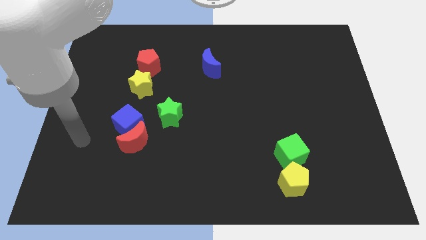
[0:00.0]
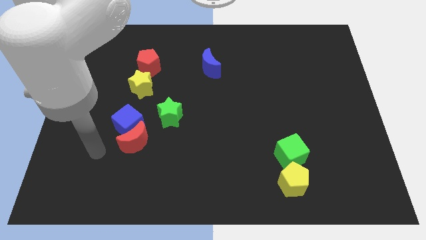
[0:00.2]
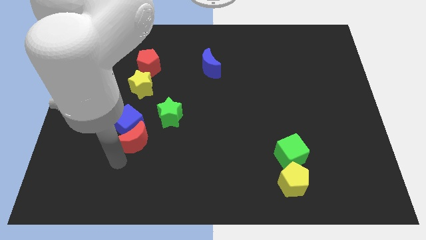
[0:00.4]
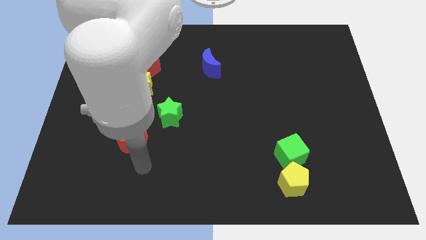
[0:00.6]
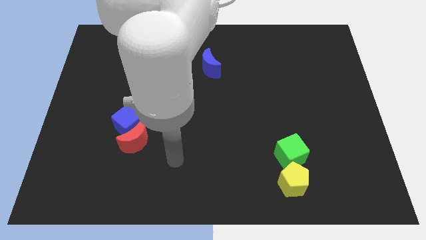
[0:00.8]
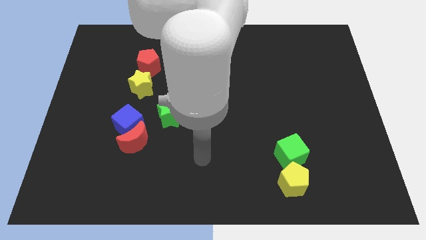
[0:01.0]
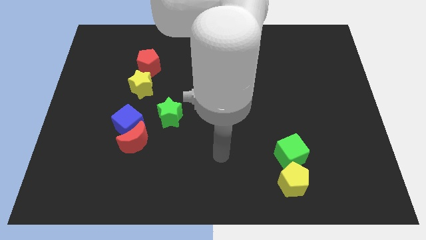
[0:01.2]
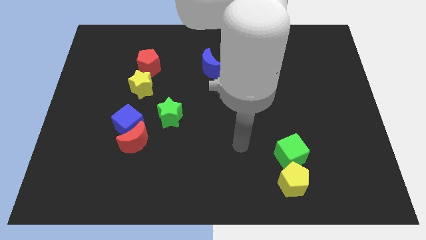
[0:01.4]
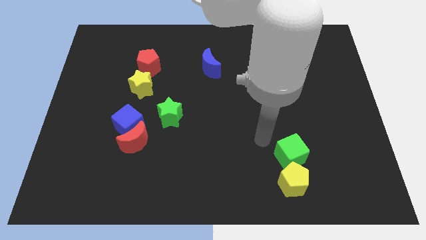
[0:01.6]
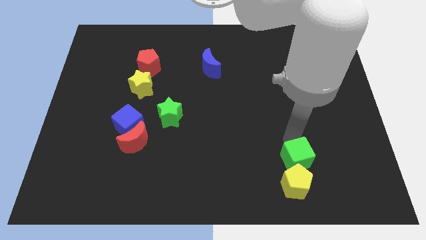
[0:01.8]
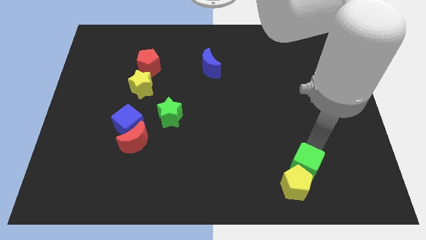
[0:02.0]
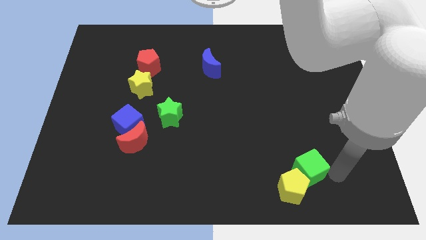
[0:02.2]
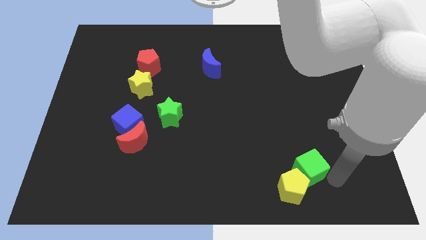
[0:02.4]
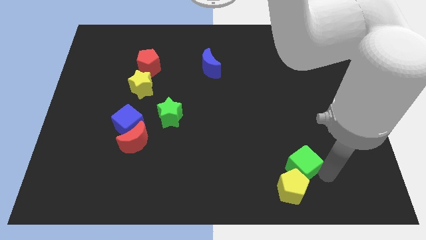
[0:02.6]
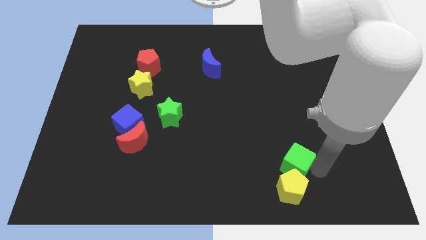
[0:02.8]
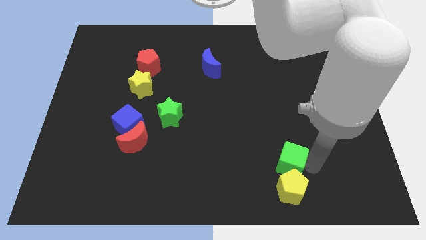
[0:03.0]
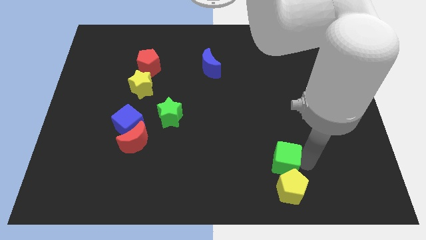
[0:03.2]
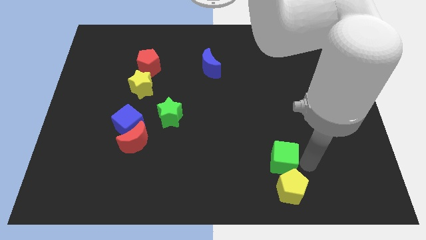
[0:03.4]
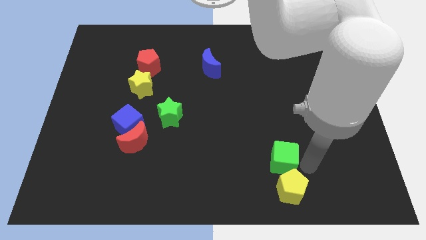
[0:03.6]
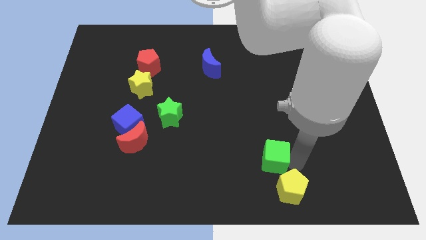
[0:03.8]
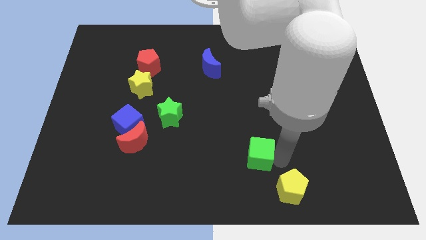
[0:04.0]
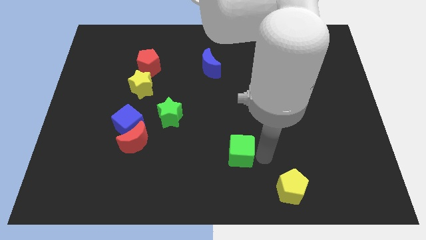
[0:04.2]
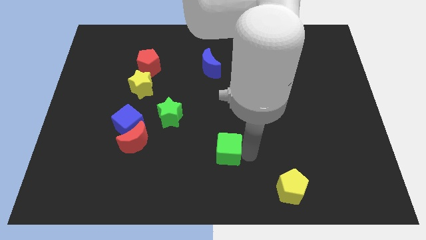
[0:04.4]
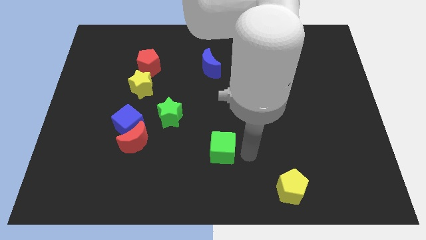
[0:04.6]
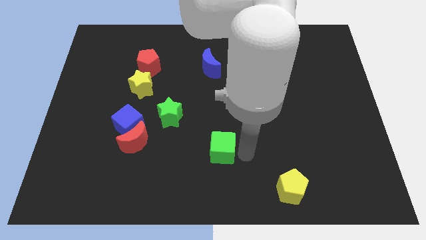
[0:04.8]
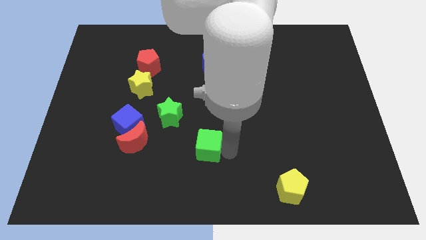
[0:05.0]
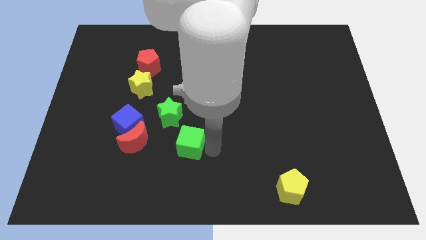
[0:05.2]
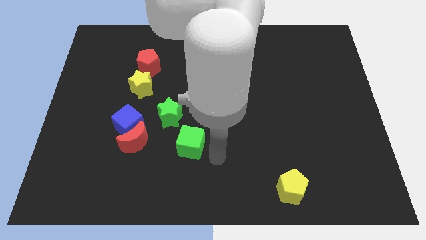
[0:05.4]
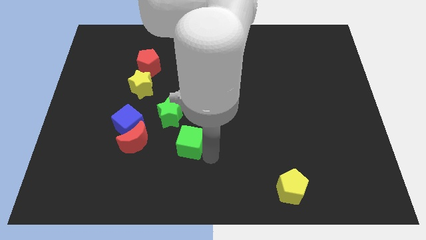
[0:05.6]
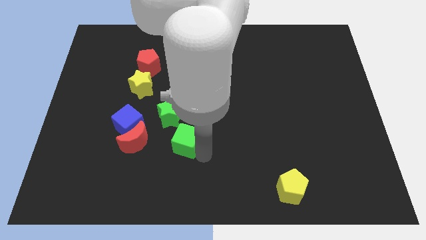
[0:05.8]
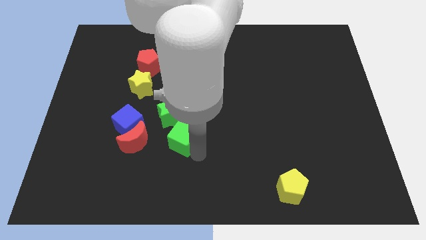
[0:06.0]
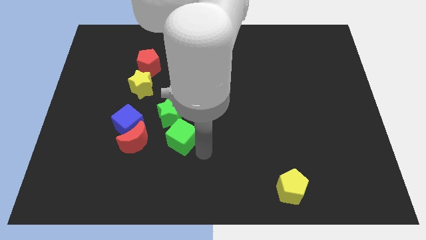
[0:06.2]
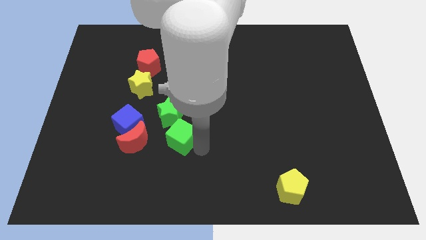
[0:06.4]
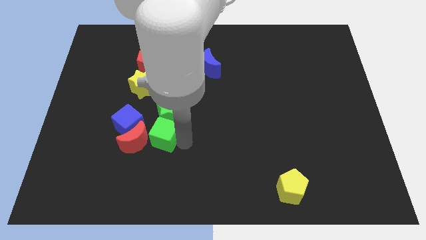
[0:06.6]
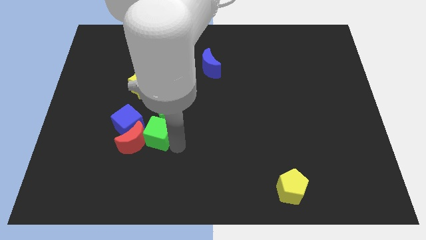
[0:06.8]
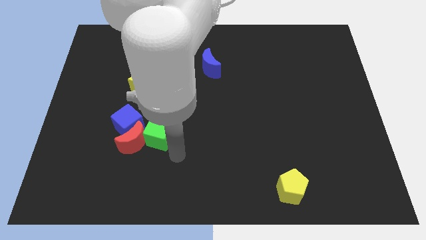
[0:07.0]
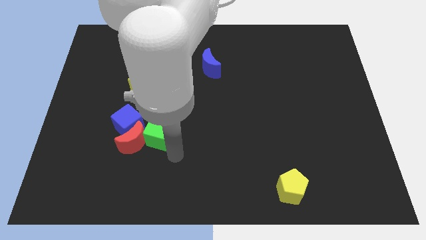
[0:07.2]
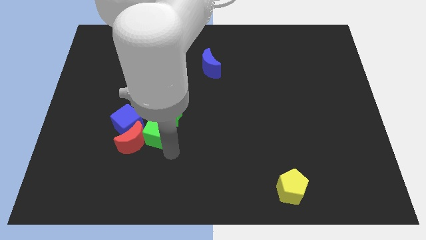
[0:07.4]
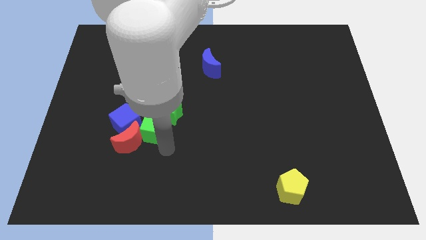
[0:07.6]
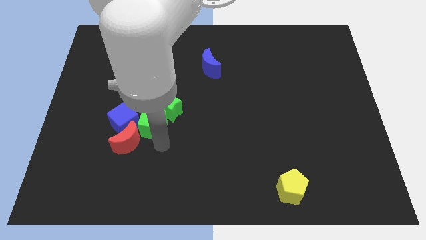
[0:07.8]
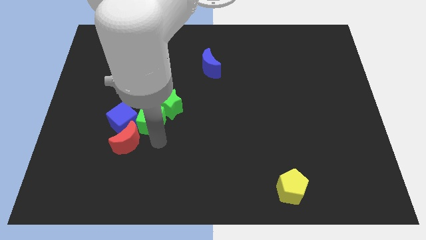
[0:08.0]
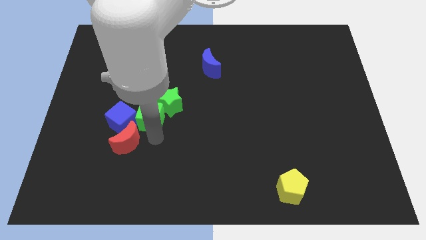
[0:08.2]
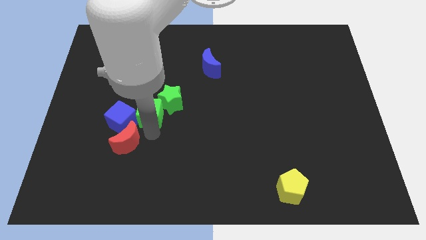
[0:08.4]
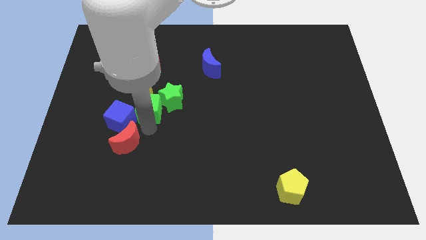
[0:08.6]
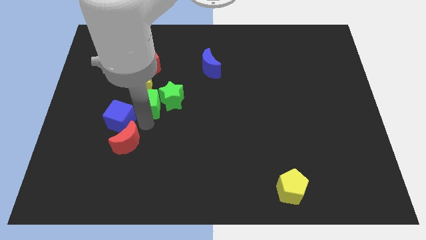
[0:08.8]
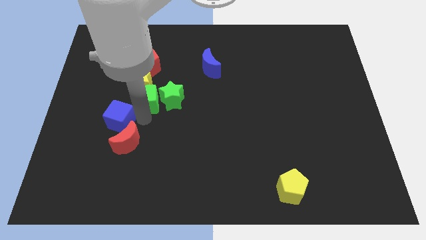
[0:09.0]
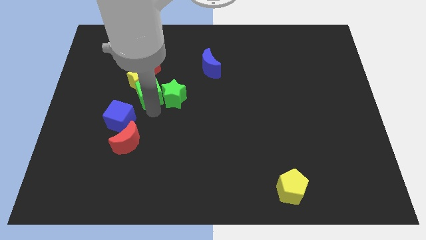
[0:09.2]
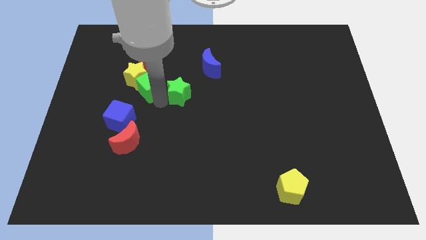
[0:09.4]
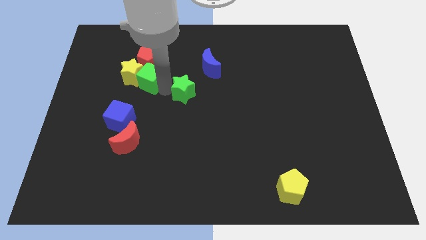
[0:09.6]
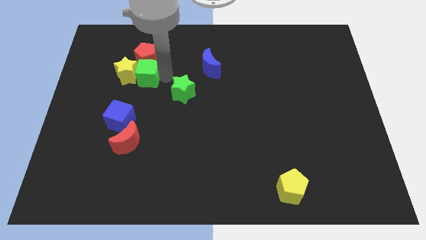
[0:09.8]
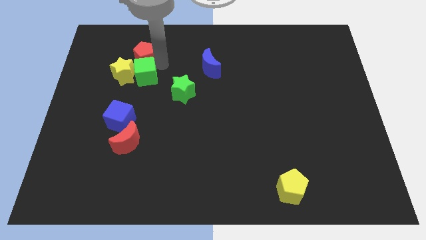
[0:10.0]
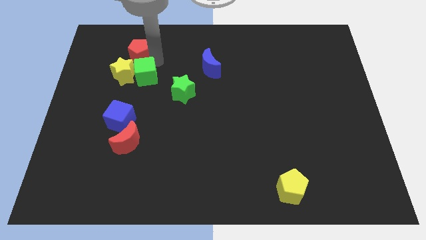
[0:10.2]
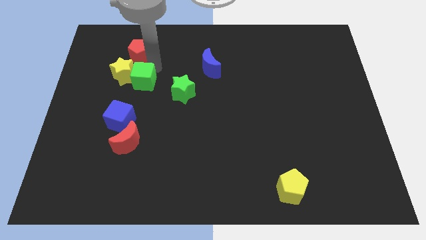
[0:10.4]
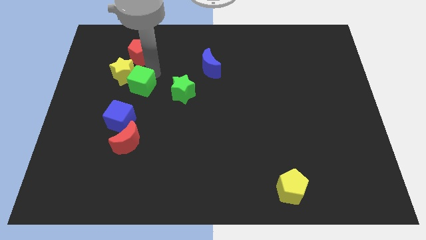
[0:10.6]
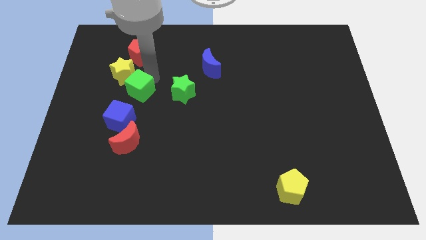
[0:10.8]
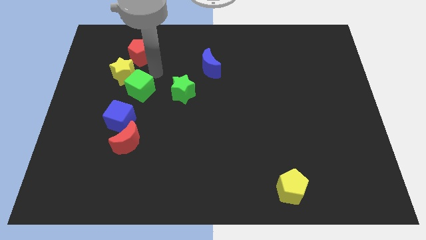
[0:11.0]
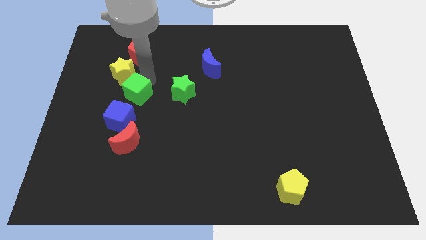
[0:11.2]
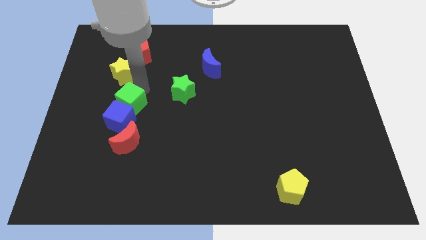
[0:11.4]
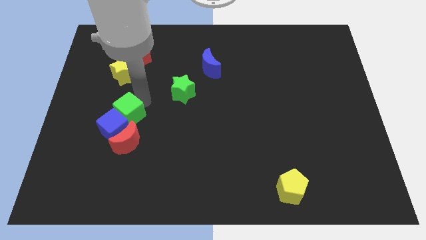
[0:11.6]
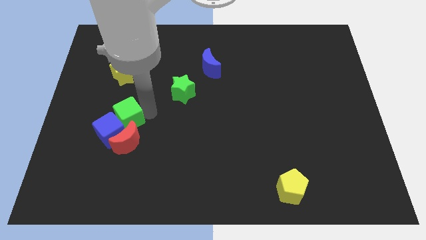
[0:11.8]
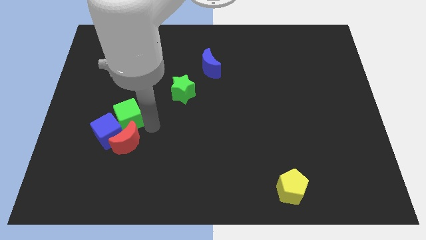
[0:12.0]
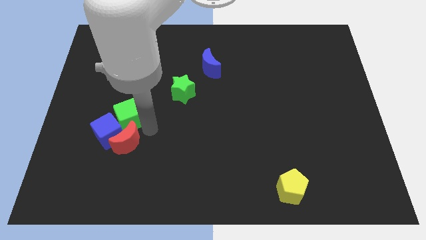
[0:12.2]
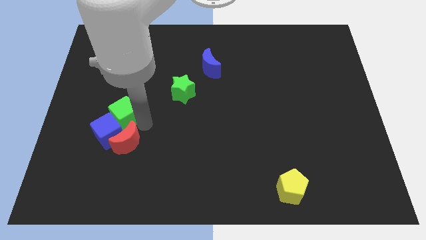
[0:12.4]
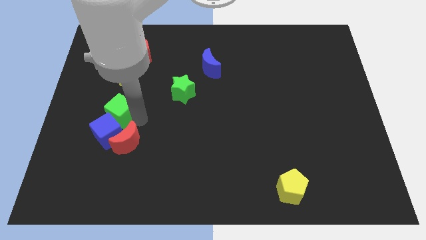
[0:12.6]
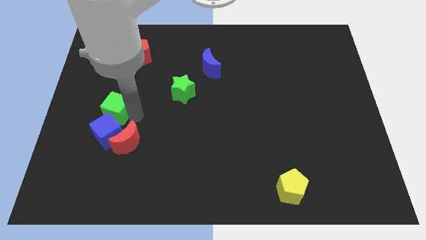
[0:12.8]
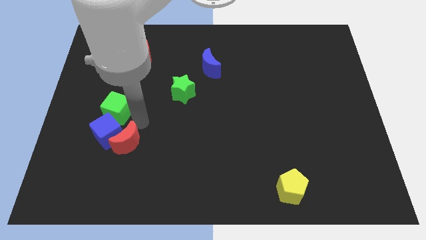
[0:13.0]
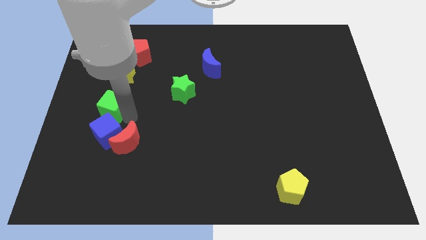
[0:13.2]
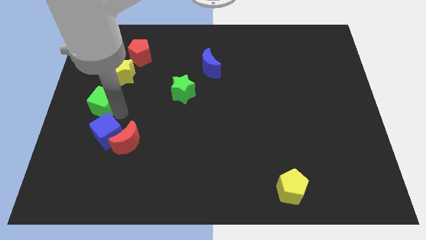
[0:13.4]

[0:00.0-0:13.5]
slide the green cube to the center left
